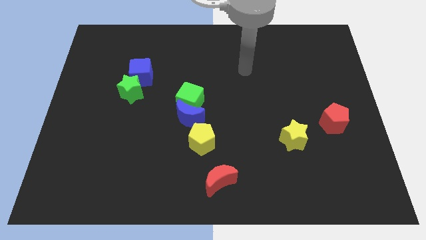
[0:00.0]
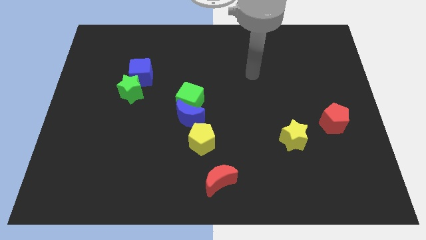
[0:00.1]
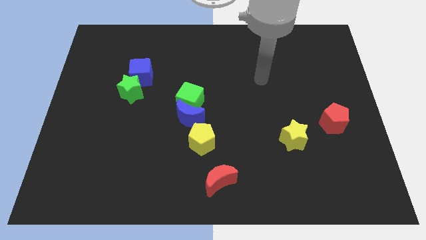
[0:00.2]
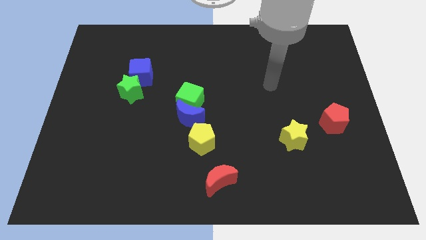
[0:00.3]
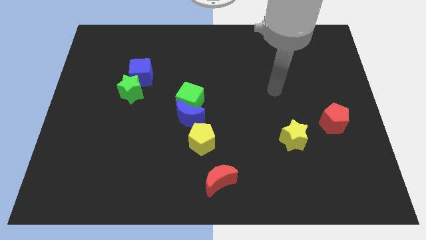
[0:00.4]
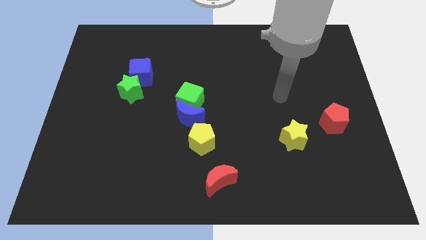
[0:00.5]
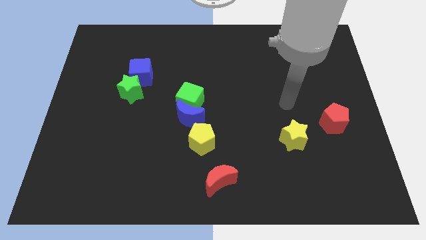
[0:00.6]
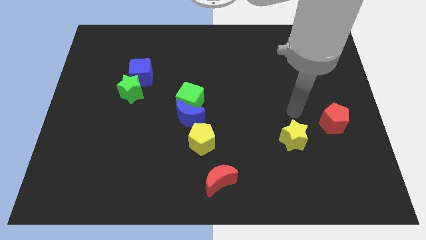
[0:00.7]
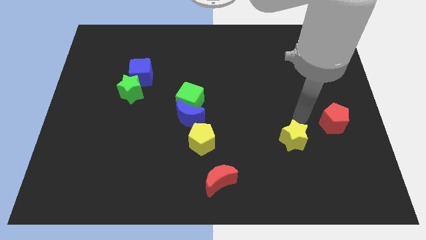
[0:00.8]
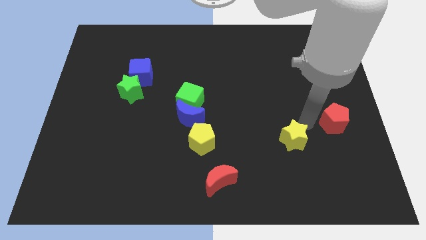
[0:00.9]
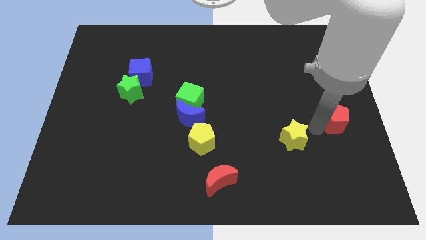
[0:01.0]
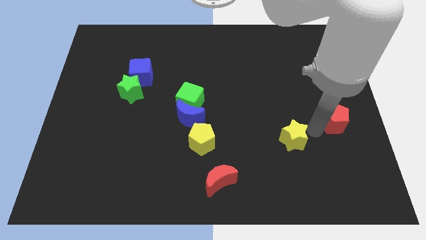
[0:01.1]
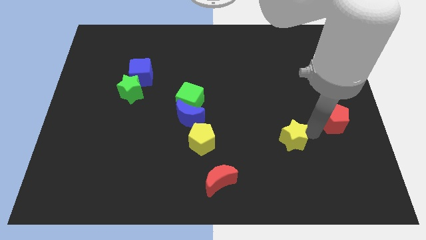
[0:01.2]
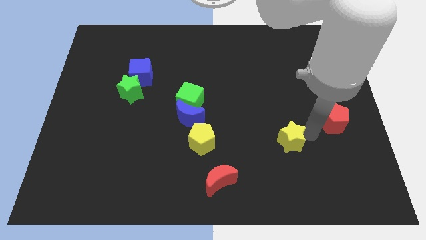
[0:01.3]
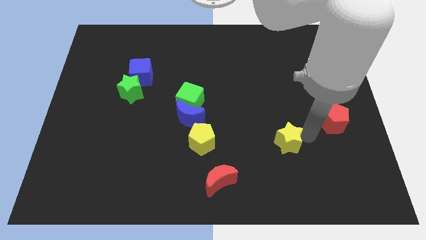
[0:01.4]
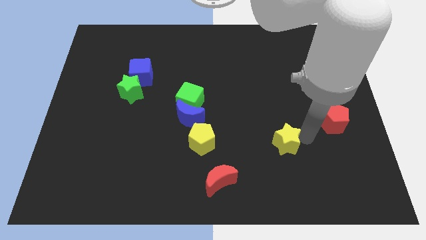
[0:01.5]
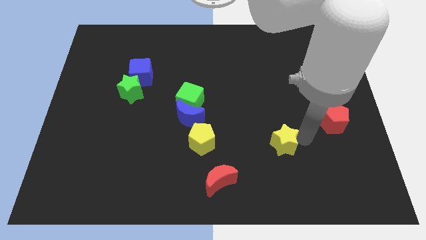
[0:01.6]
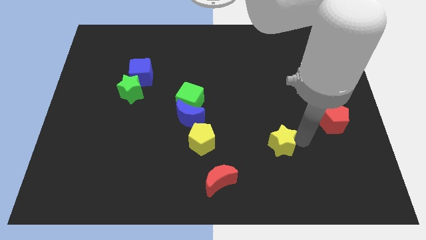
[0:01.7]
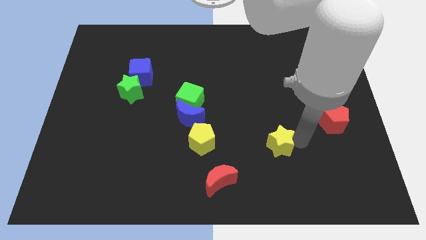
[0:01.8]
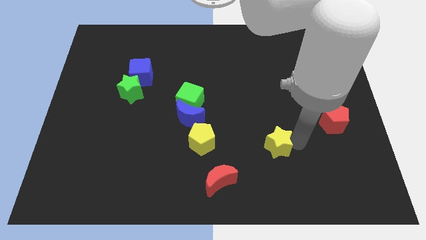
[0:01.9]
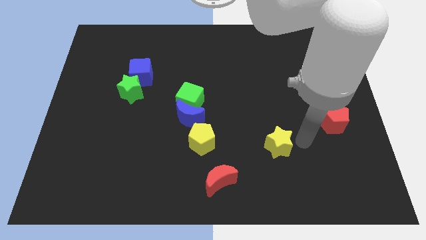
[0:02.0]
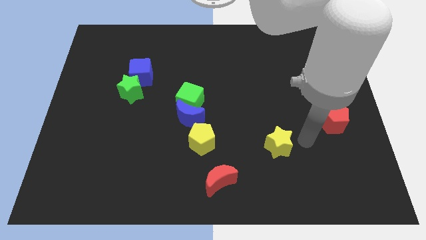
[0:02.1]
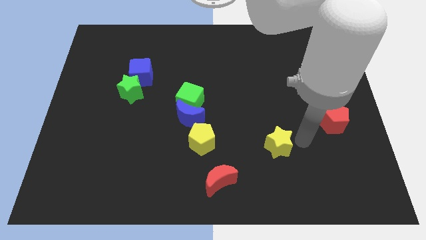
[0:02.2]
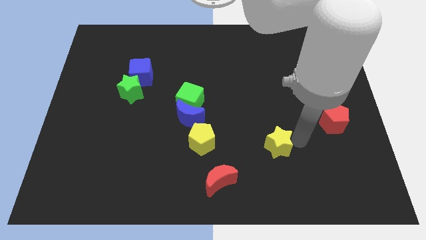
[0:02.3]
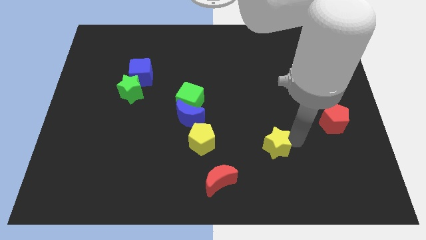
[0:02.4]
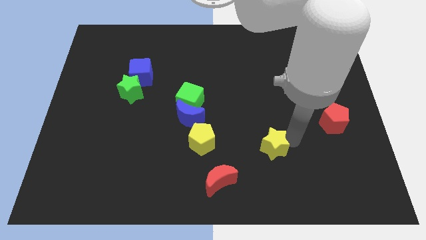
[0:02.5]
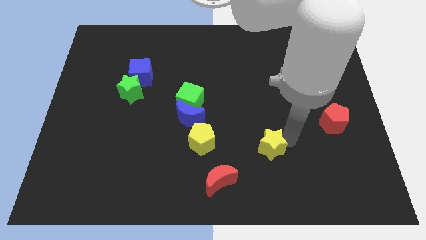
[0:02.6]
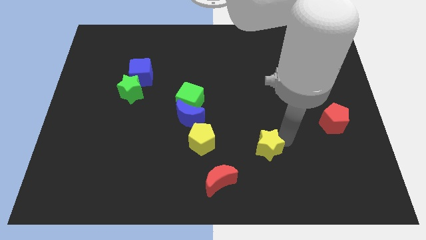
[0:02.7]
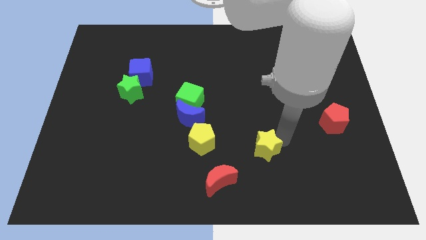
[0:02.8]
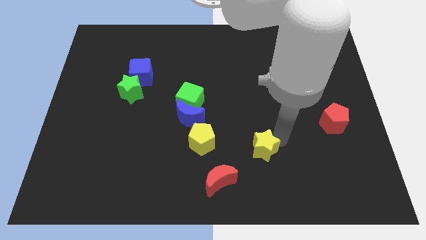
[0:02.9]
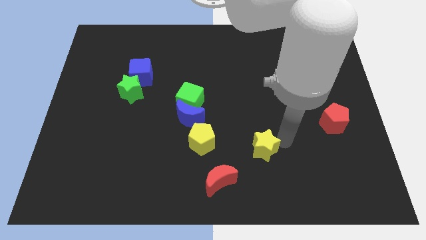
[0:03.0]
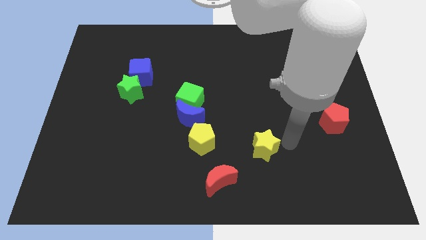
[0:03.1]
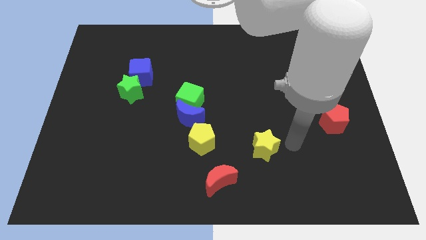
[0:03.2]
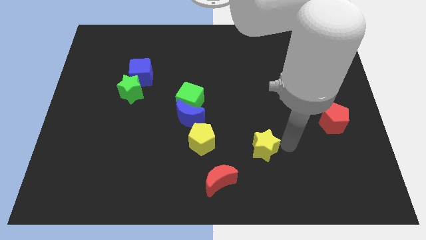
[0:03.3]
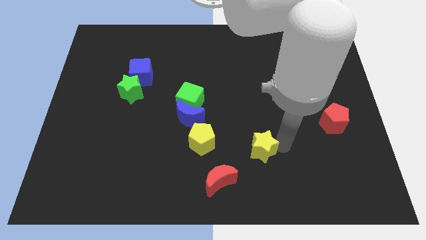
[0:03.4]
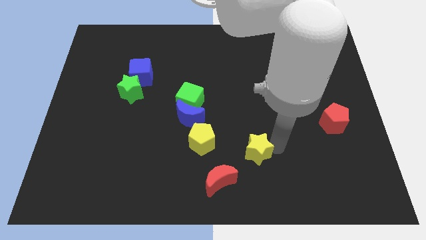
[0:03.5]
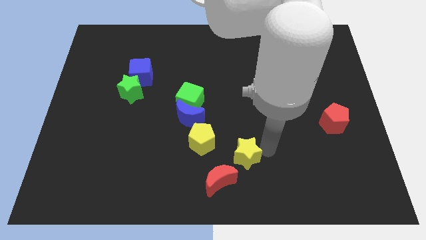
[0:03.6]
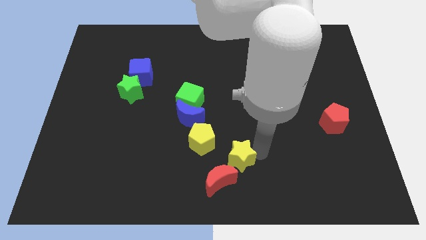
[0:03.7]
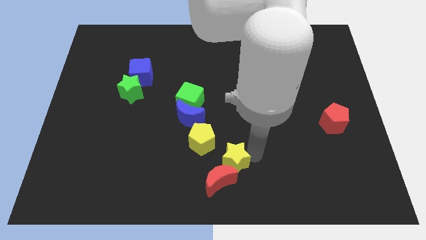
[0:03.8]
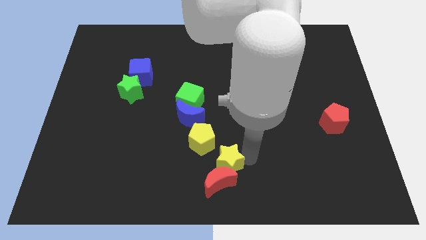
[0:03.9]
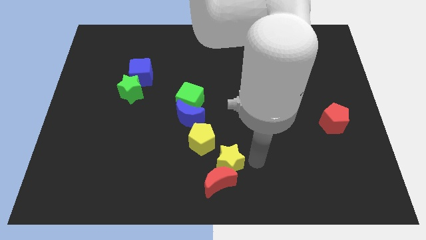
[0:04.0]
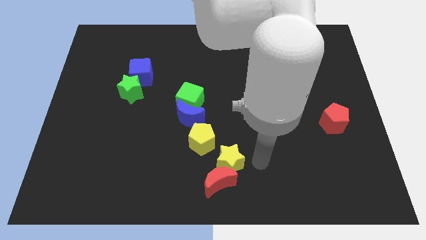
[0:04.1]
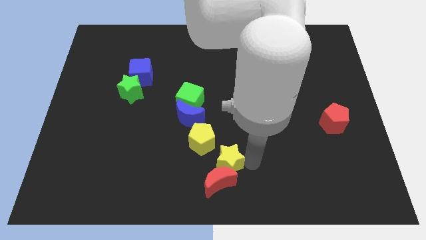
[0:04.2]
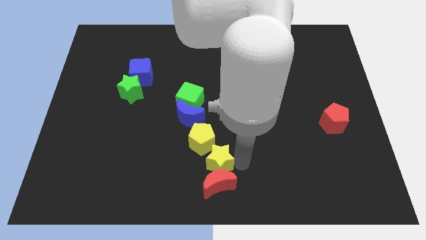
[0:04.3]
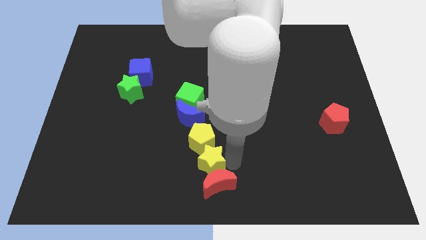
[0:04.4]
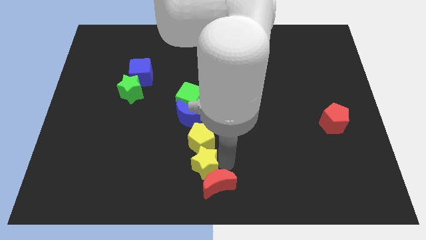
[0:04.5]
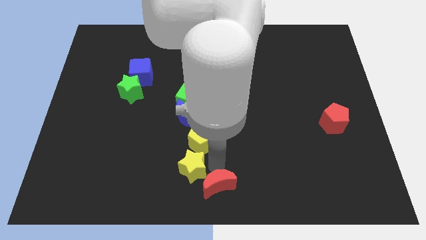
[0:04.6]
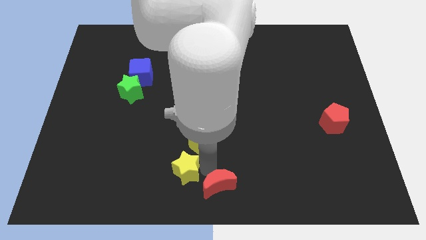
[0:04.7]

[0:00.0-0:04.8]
slide the yellow star left

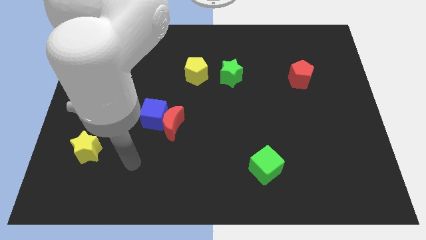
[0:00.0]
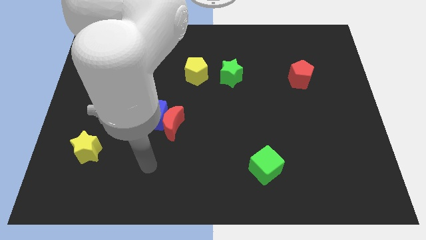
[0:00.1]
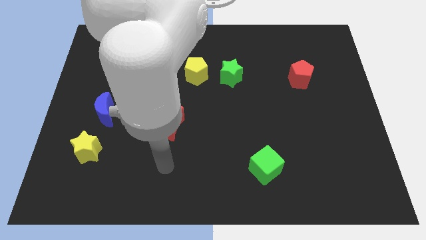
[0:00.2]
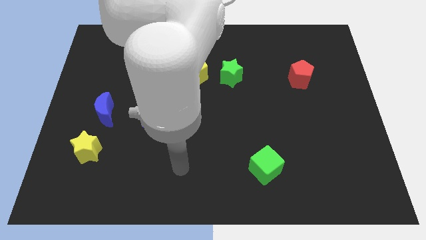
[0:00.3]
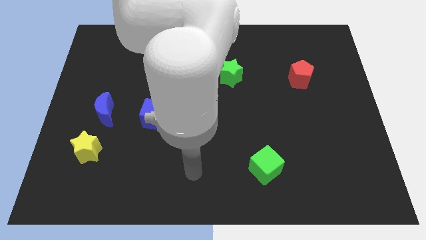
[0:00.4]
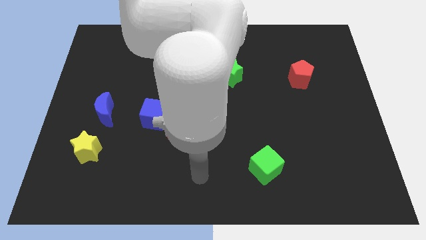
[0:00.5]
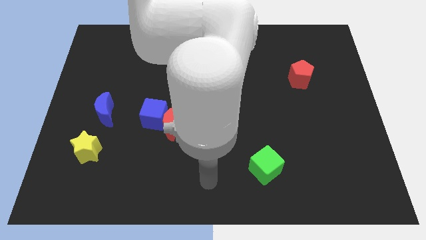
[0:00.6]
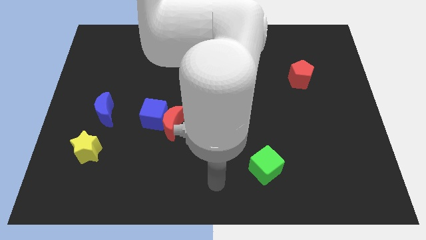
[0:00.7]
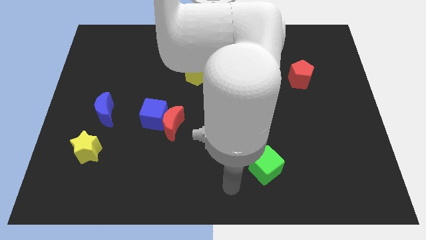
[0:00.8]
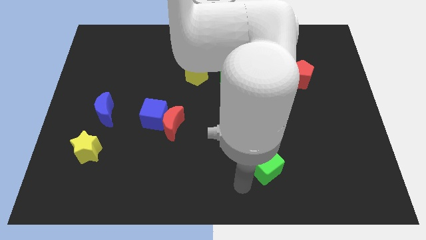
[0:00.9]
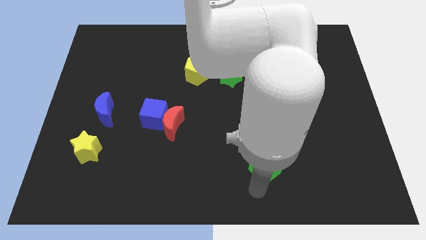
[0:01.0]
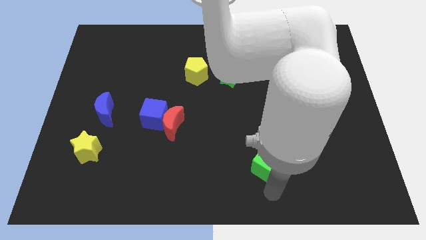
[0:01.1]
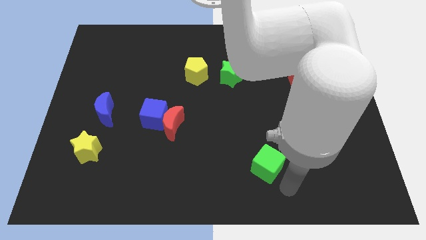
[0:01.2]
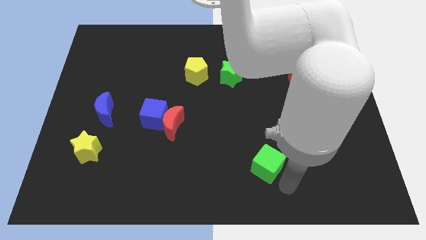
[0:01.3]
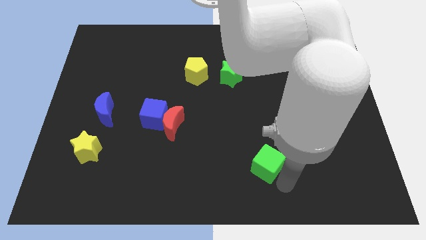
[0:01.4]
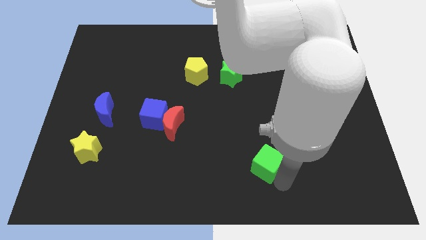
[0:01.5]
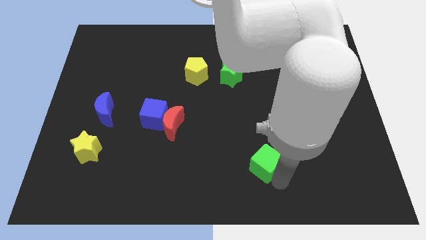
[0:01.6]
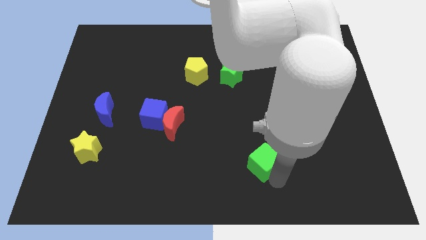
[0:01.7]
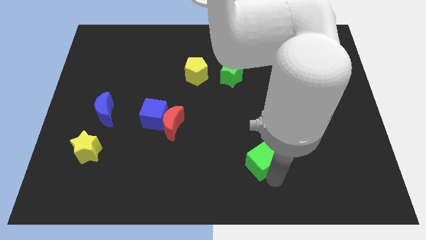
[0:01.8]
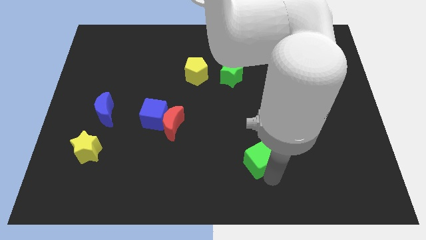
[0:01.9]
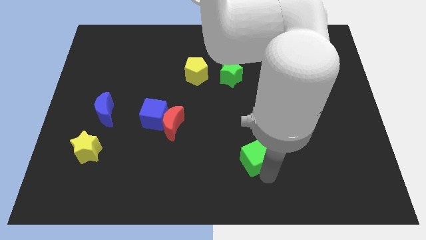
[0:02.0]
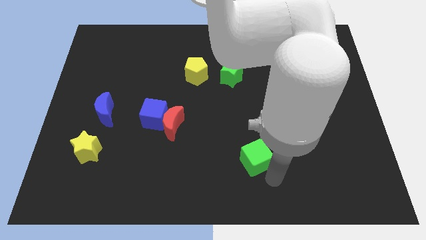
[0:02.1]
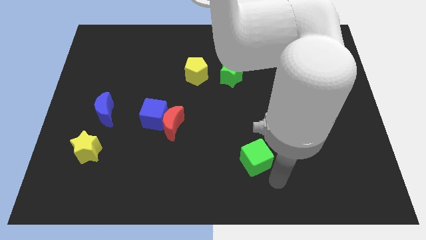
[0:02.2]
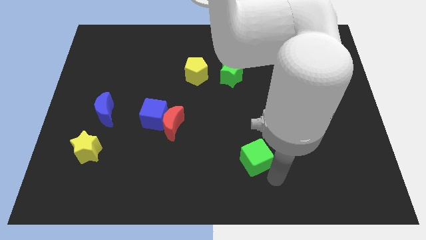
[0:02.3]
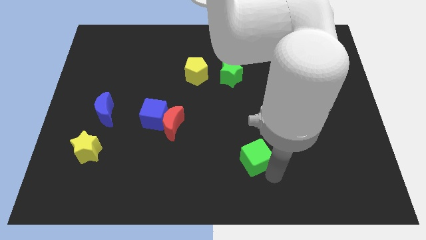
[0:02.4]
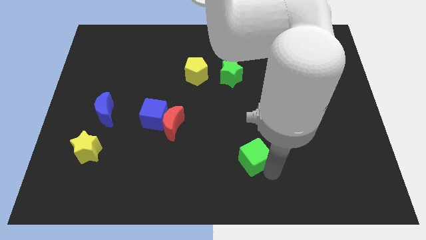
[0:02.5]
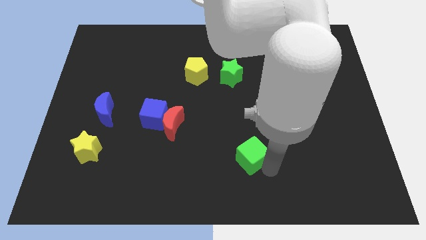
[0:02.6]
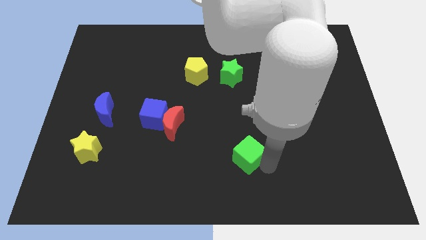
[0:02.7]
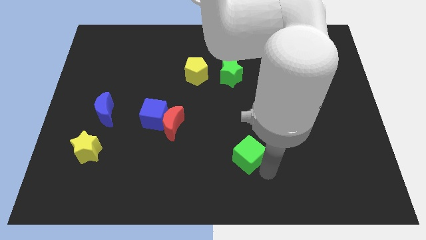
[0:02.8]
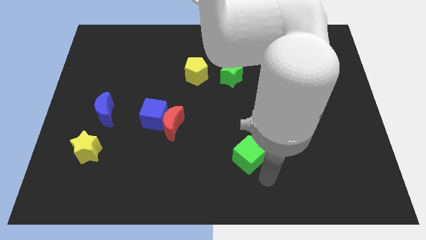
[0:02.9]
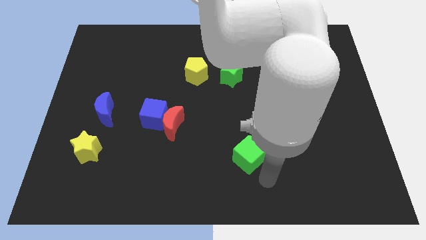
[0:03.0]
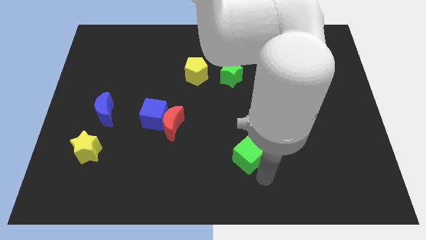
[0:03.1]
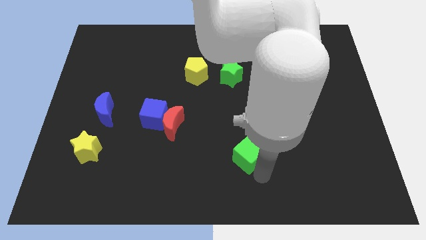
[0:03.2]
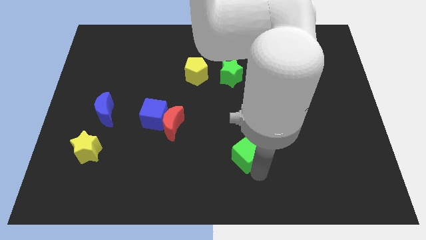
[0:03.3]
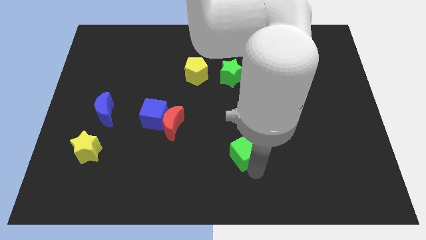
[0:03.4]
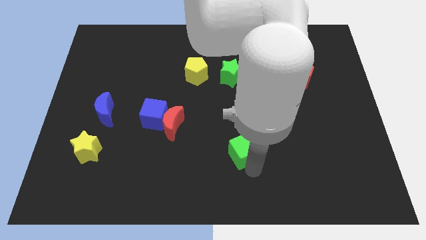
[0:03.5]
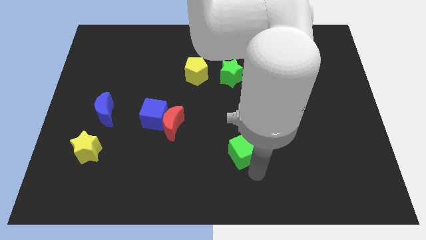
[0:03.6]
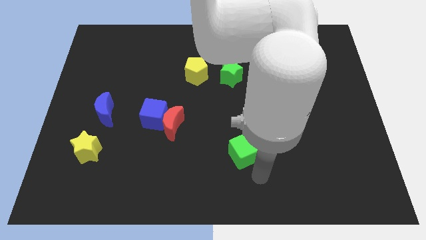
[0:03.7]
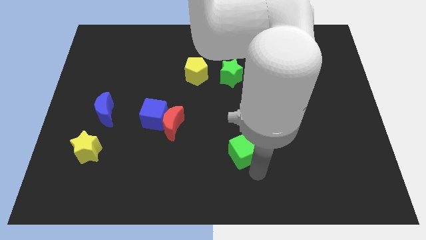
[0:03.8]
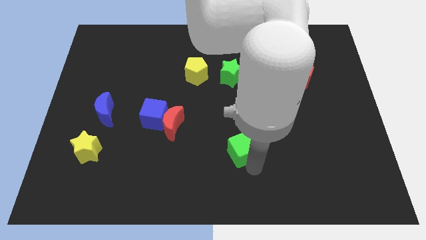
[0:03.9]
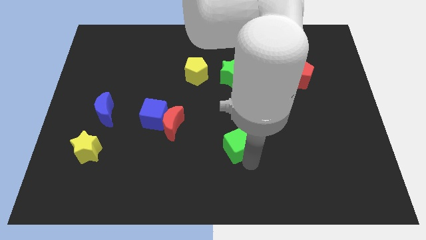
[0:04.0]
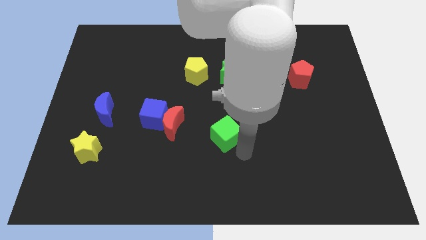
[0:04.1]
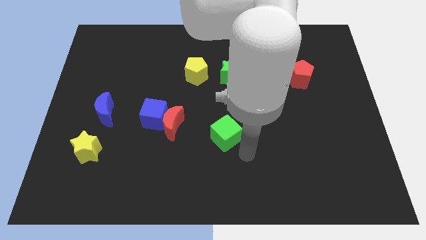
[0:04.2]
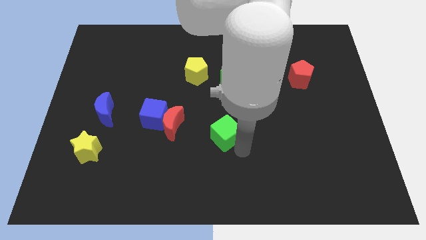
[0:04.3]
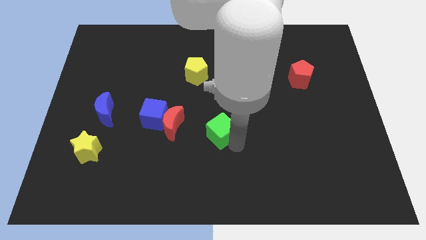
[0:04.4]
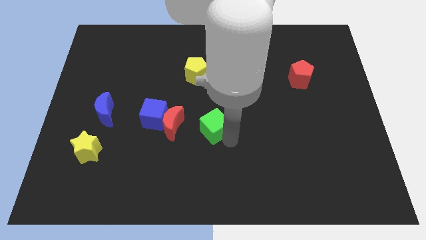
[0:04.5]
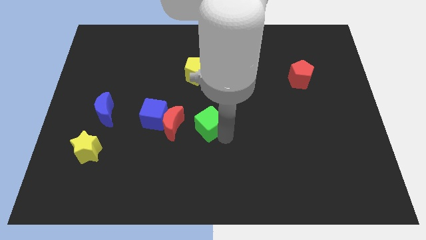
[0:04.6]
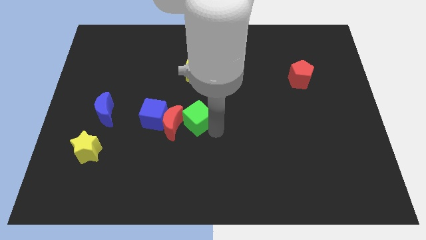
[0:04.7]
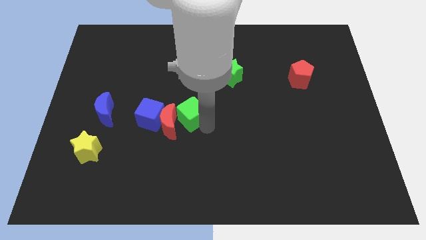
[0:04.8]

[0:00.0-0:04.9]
move the green cube upwards and then left
